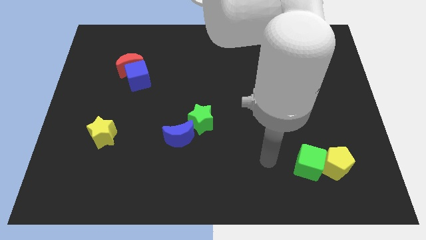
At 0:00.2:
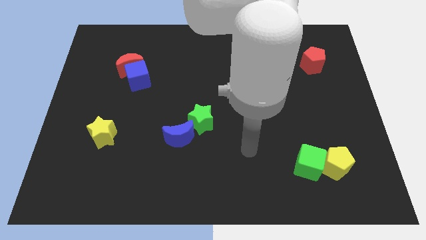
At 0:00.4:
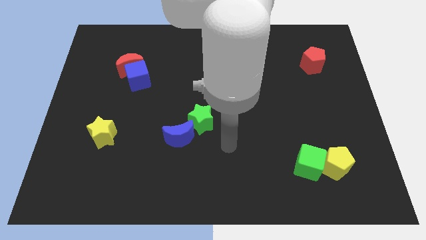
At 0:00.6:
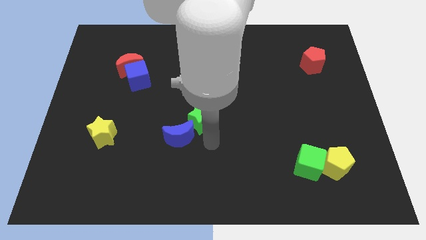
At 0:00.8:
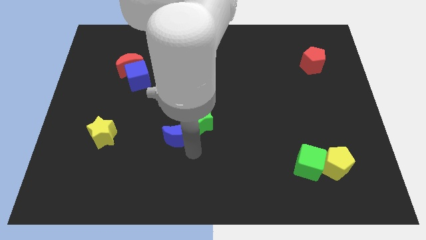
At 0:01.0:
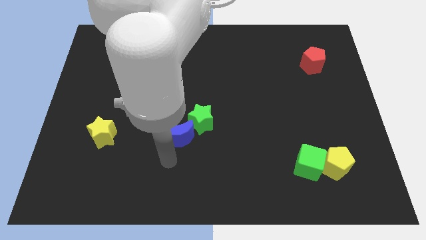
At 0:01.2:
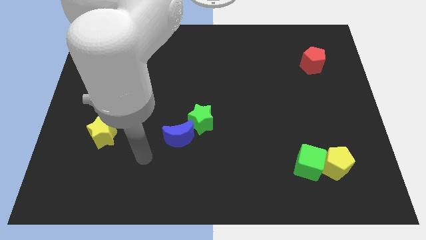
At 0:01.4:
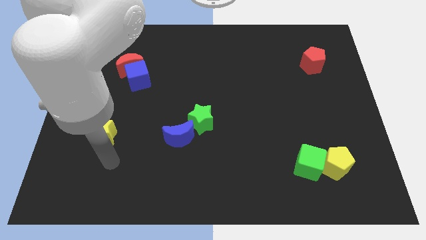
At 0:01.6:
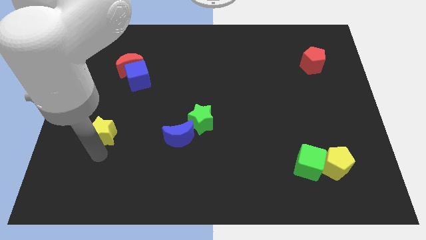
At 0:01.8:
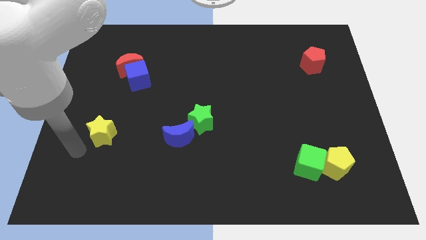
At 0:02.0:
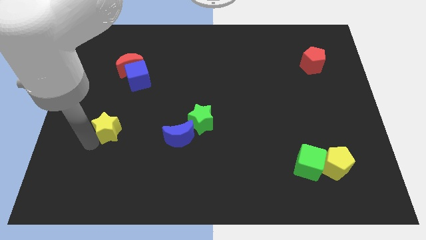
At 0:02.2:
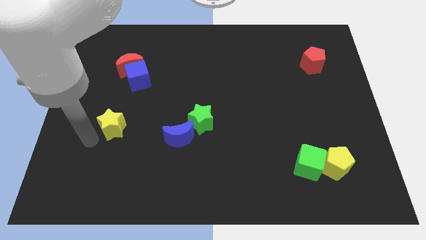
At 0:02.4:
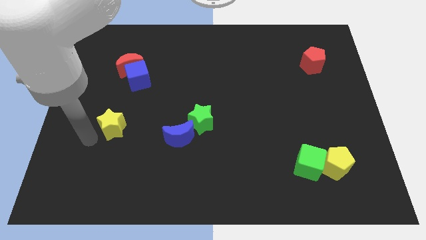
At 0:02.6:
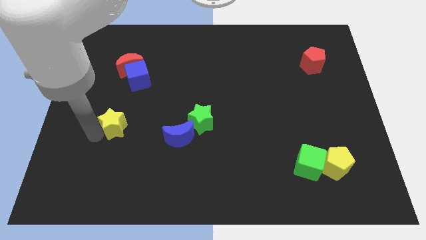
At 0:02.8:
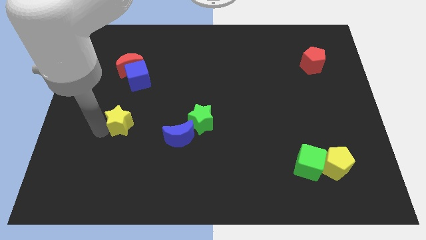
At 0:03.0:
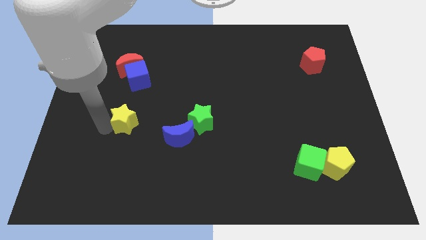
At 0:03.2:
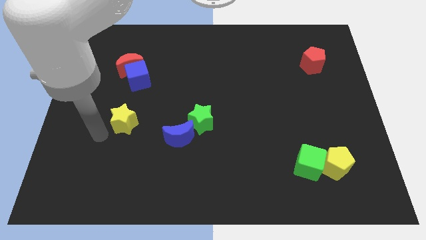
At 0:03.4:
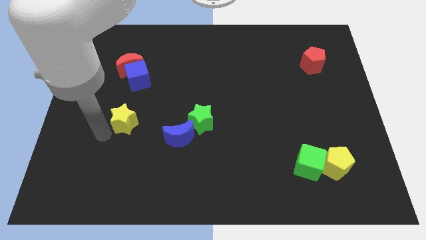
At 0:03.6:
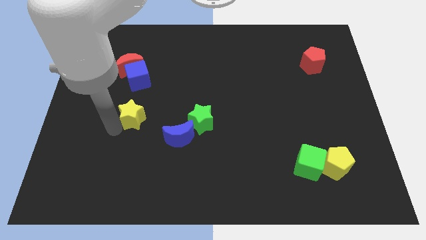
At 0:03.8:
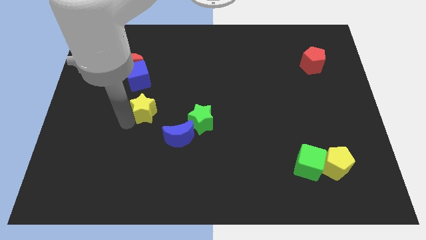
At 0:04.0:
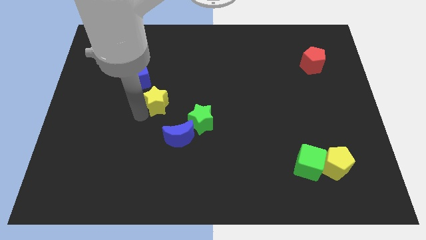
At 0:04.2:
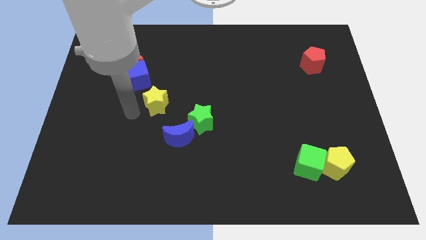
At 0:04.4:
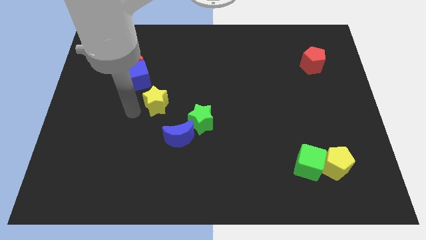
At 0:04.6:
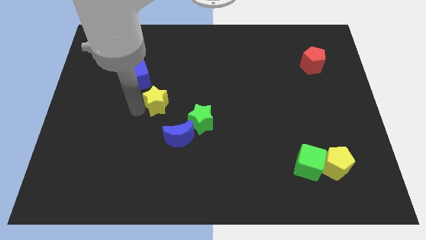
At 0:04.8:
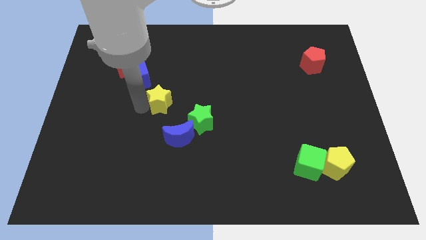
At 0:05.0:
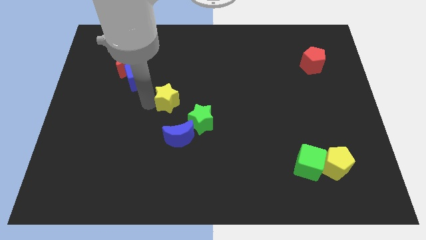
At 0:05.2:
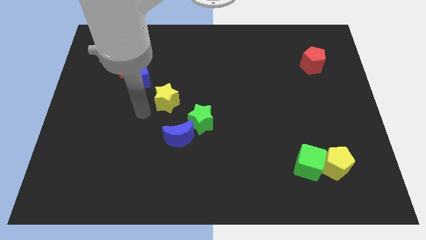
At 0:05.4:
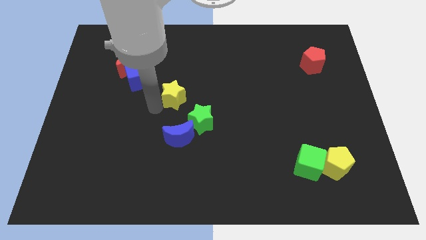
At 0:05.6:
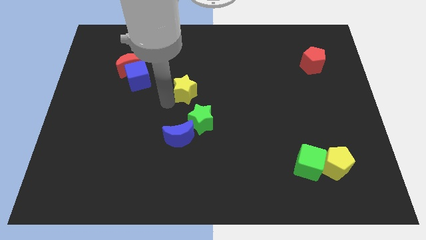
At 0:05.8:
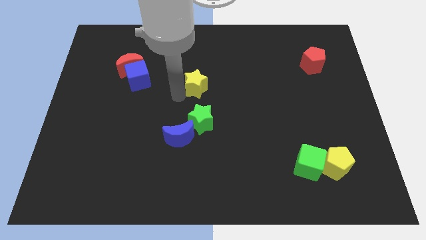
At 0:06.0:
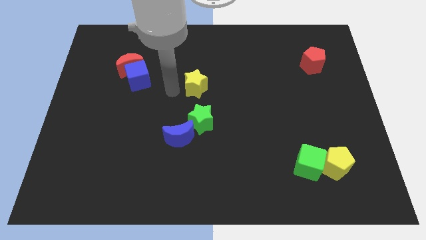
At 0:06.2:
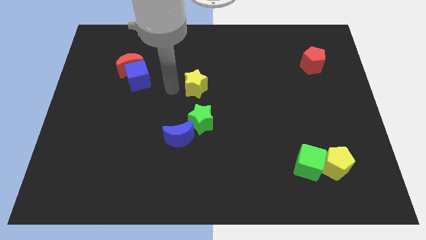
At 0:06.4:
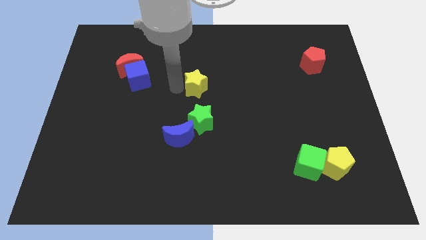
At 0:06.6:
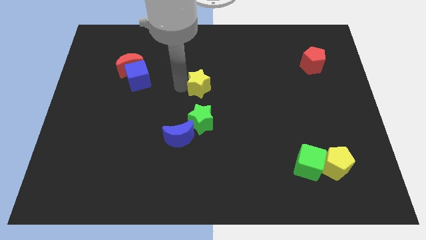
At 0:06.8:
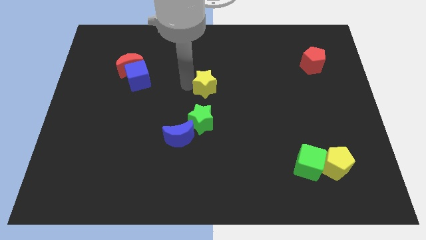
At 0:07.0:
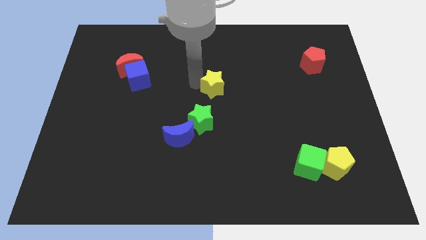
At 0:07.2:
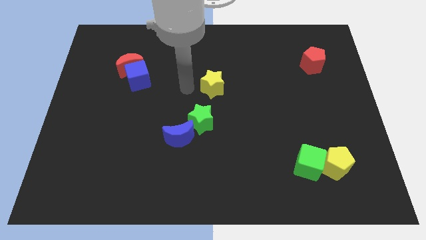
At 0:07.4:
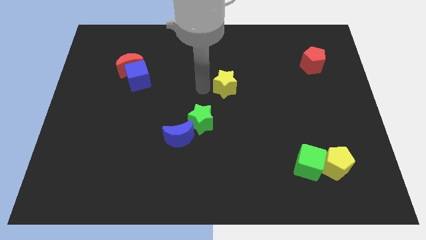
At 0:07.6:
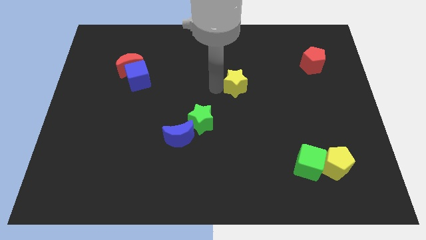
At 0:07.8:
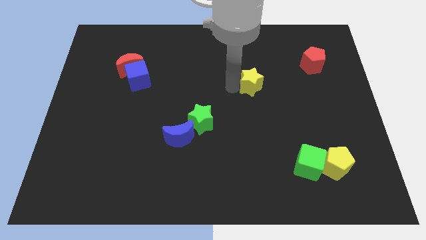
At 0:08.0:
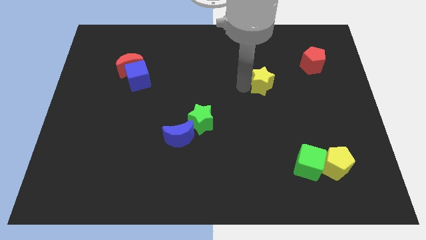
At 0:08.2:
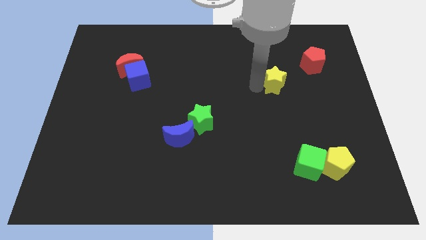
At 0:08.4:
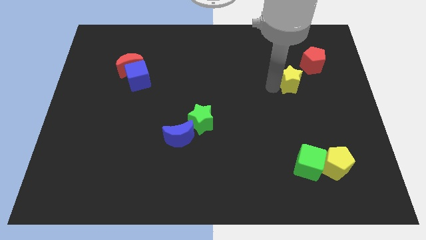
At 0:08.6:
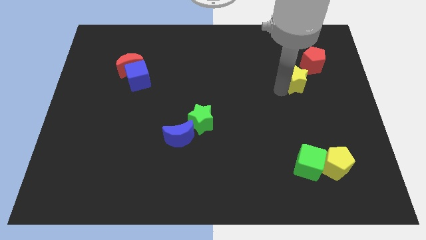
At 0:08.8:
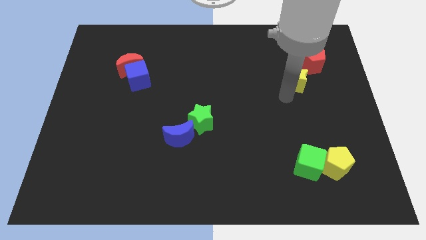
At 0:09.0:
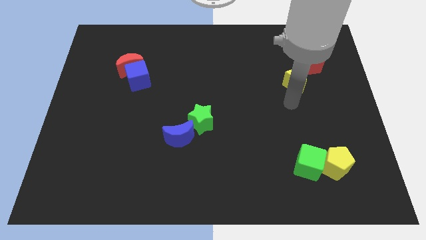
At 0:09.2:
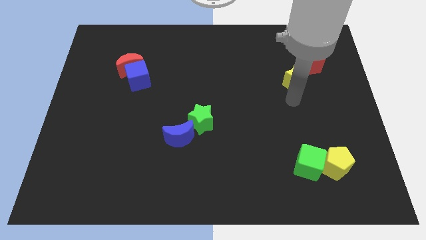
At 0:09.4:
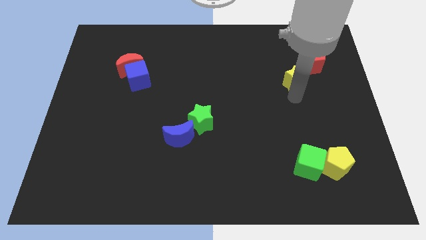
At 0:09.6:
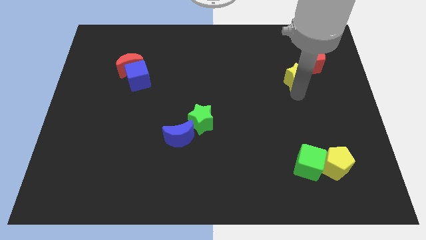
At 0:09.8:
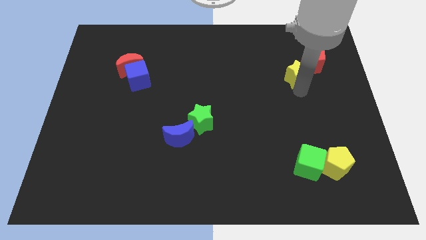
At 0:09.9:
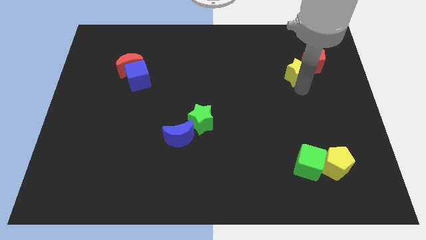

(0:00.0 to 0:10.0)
move the yellow star to the red pentagon

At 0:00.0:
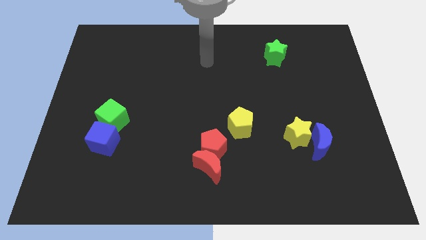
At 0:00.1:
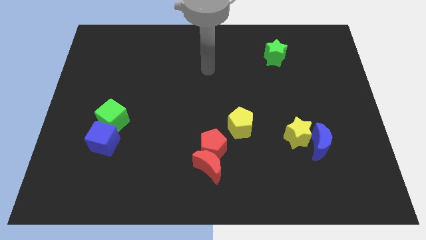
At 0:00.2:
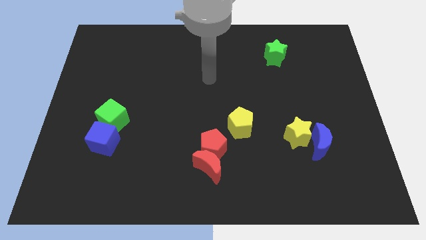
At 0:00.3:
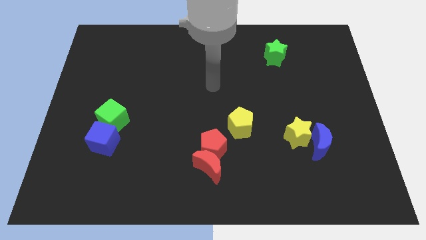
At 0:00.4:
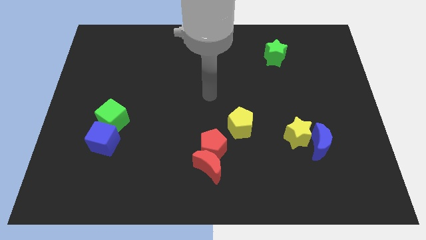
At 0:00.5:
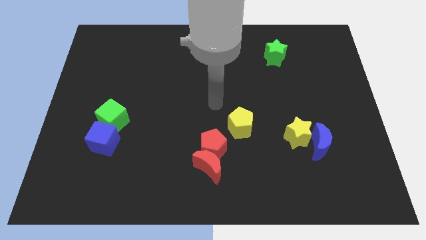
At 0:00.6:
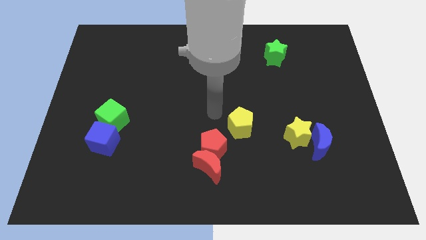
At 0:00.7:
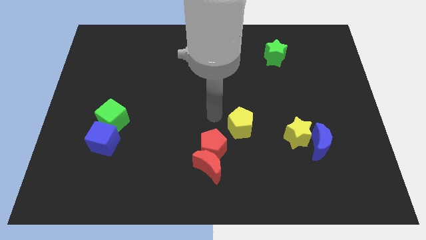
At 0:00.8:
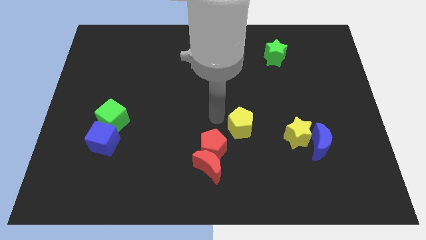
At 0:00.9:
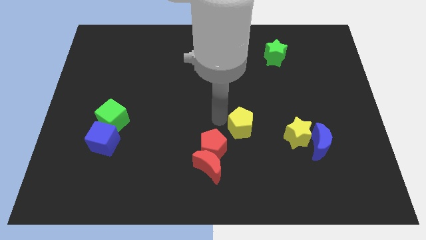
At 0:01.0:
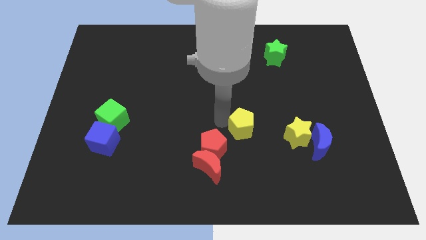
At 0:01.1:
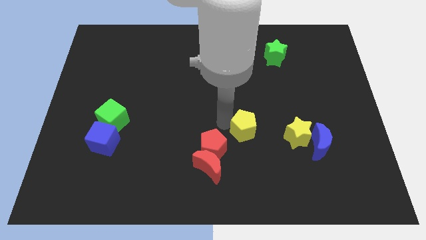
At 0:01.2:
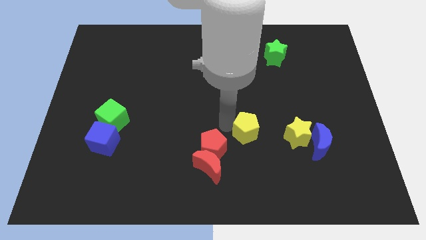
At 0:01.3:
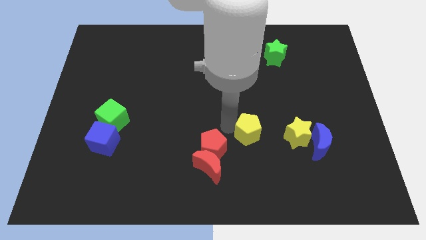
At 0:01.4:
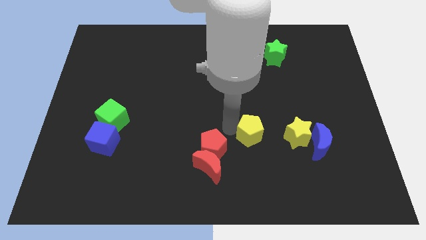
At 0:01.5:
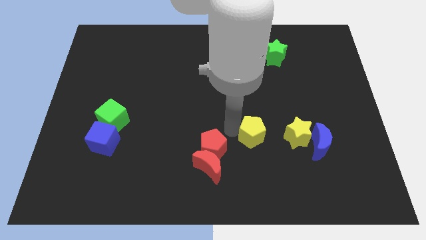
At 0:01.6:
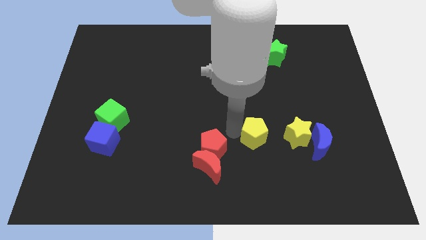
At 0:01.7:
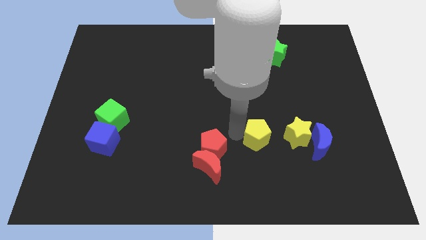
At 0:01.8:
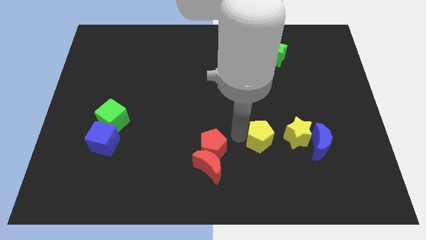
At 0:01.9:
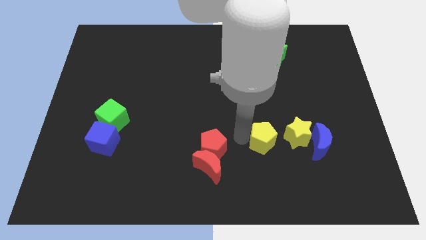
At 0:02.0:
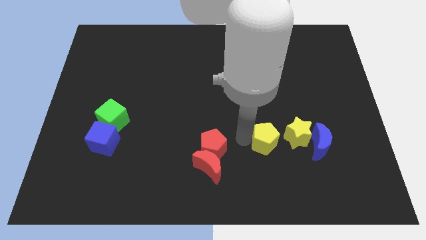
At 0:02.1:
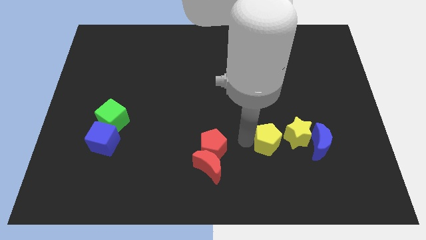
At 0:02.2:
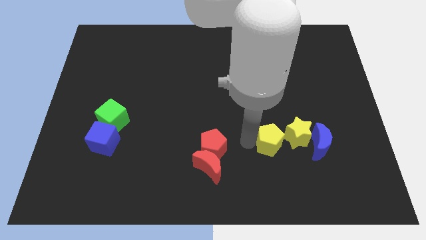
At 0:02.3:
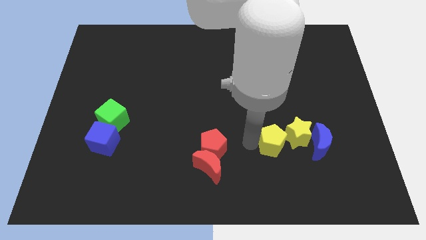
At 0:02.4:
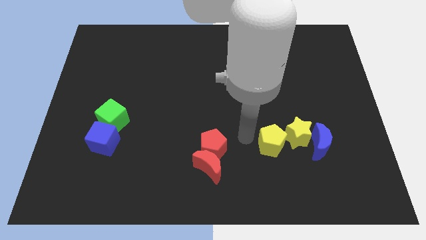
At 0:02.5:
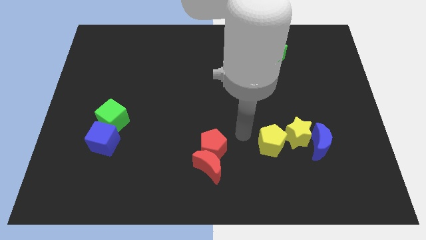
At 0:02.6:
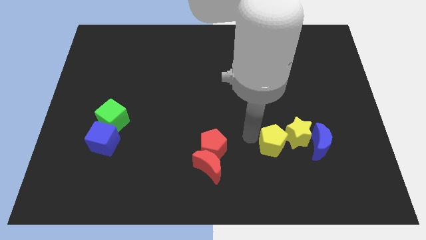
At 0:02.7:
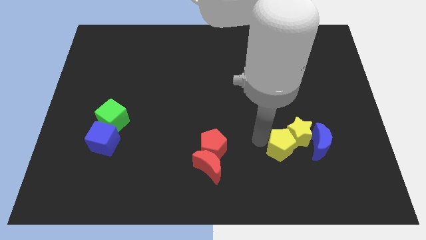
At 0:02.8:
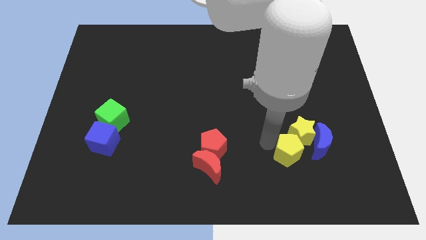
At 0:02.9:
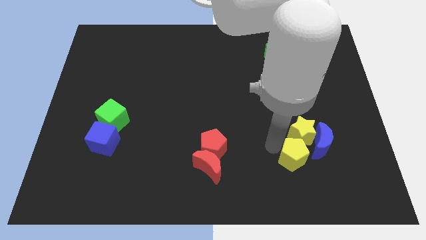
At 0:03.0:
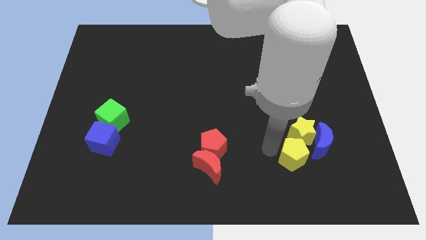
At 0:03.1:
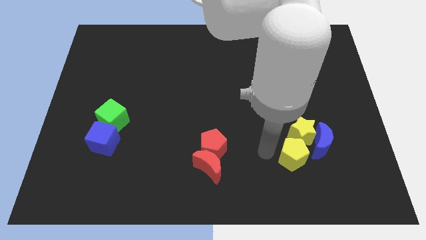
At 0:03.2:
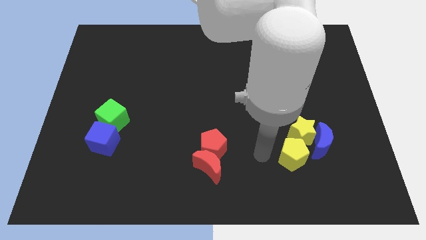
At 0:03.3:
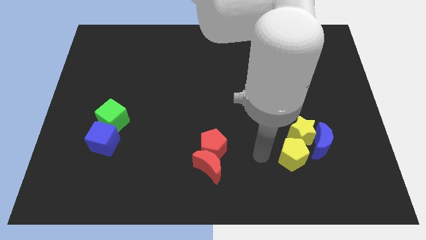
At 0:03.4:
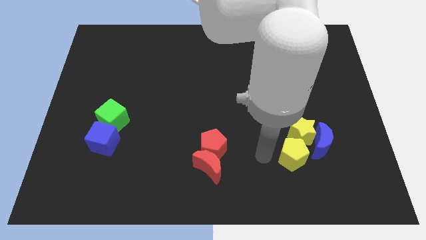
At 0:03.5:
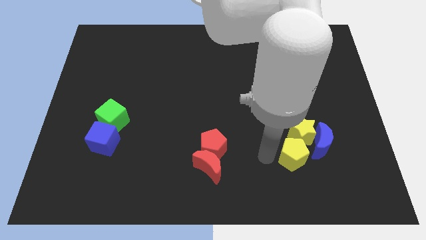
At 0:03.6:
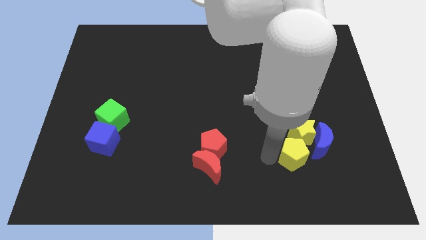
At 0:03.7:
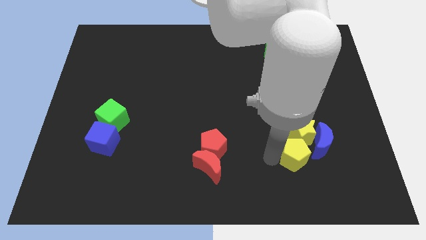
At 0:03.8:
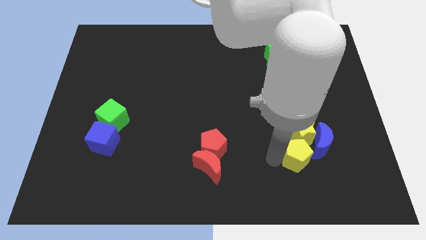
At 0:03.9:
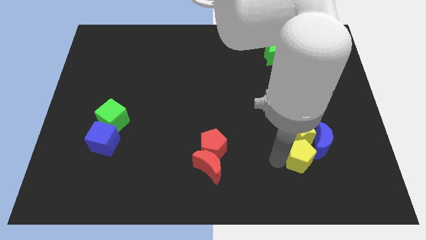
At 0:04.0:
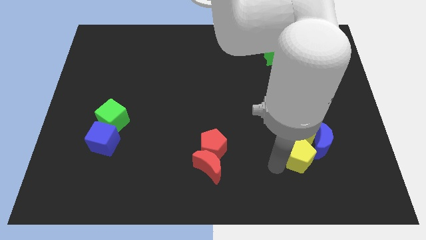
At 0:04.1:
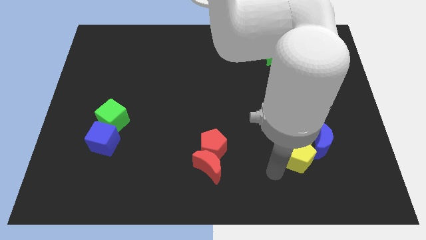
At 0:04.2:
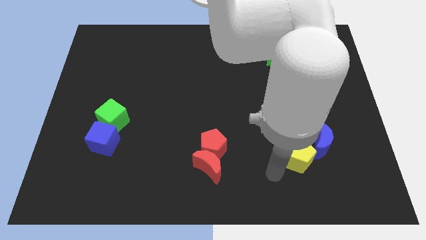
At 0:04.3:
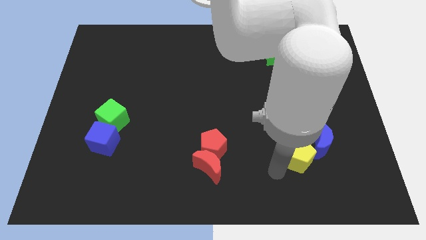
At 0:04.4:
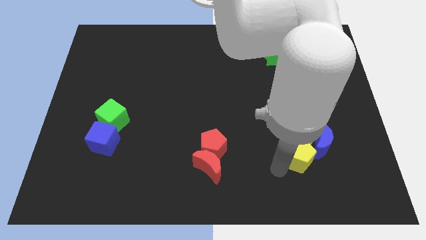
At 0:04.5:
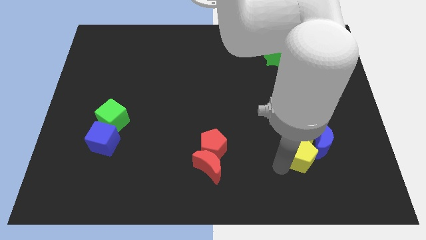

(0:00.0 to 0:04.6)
move the yellow pentagon to the blue moon
